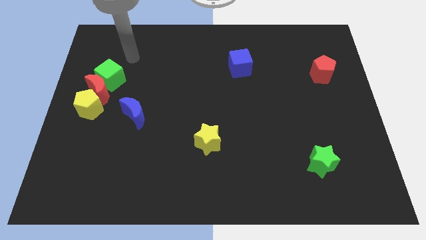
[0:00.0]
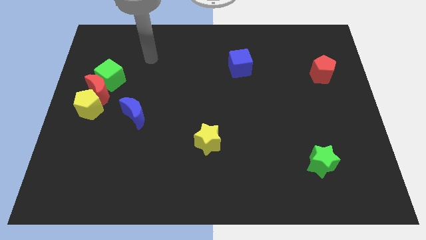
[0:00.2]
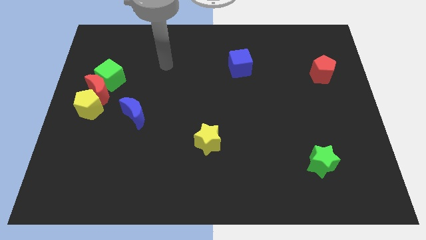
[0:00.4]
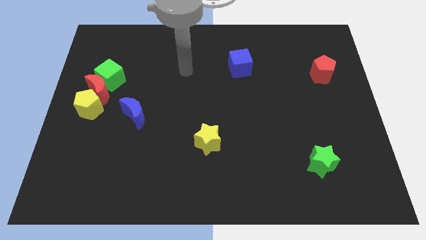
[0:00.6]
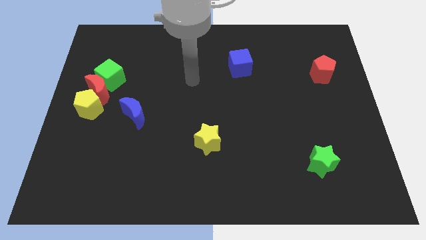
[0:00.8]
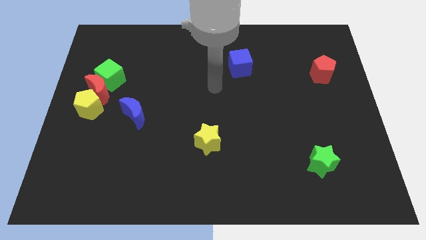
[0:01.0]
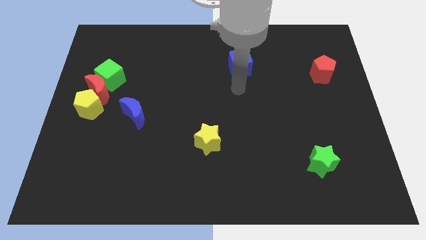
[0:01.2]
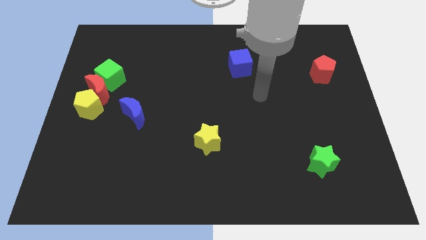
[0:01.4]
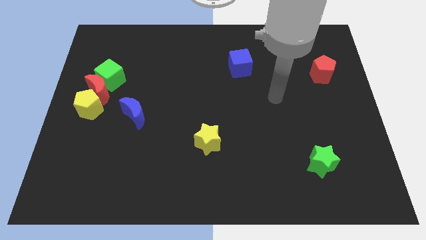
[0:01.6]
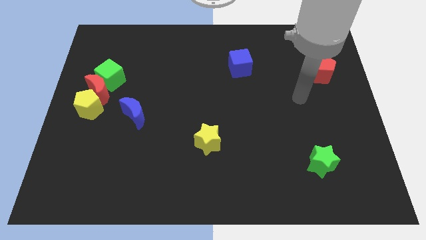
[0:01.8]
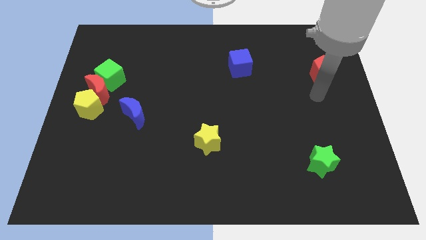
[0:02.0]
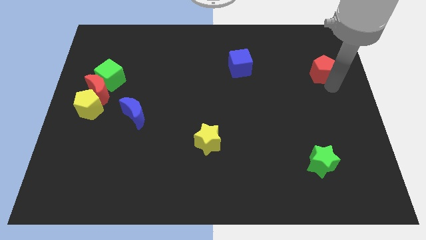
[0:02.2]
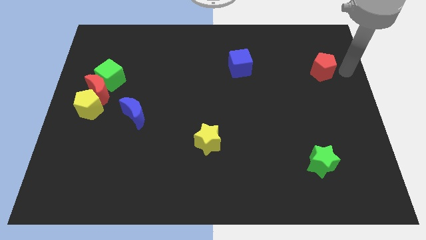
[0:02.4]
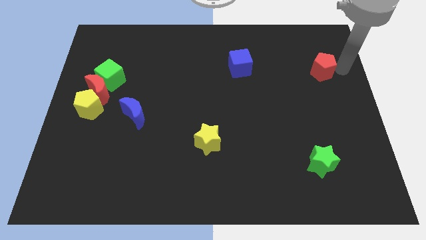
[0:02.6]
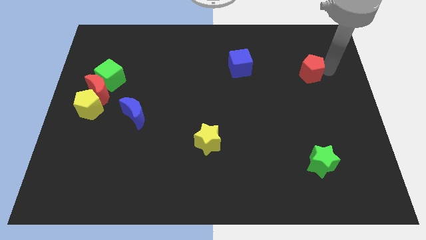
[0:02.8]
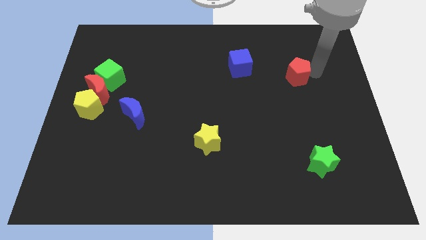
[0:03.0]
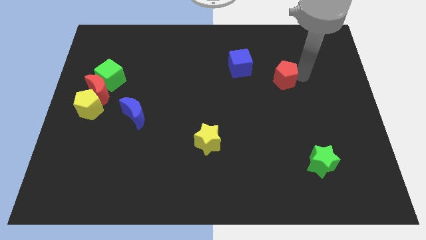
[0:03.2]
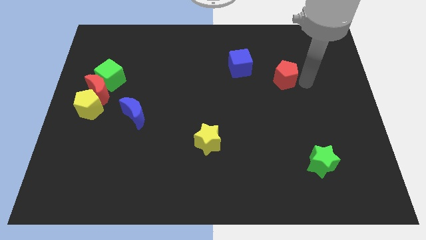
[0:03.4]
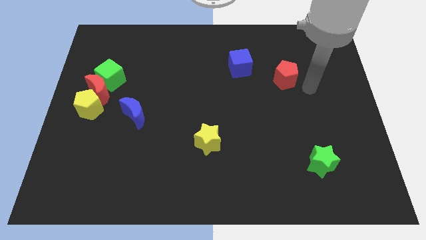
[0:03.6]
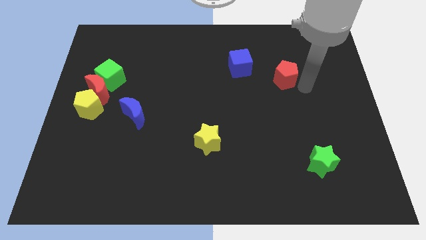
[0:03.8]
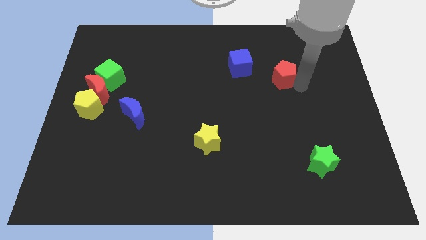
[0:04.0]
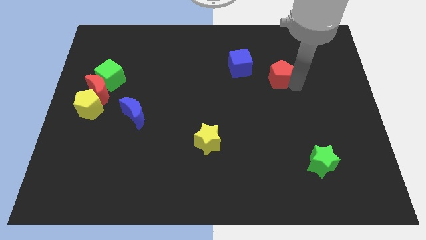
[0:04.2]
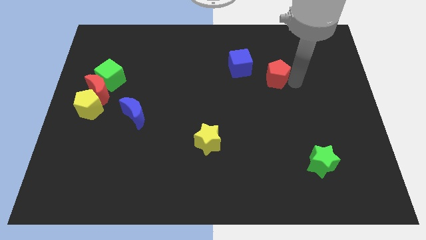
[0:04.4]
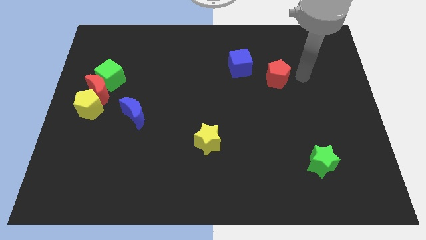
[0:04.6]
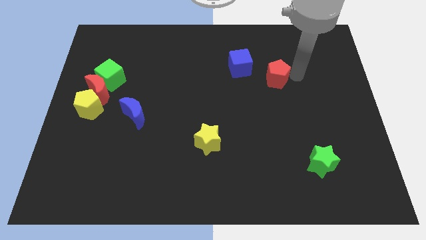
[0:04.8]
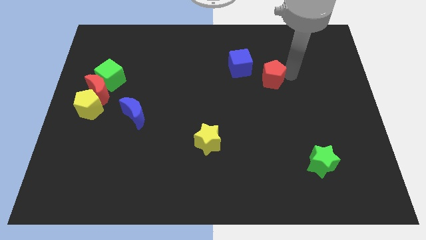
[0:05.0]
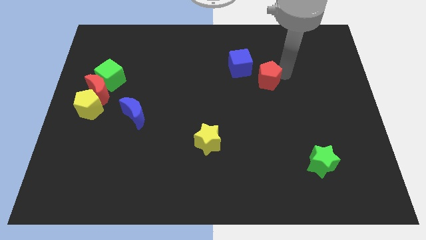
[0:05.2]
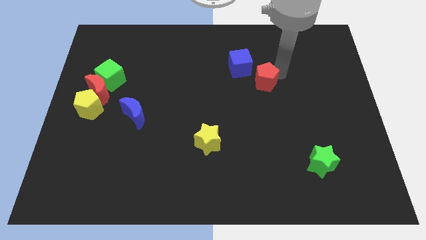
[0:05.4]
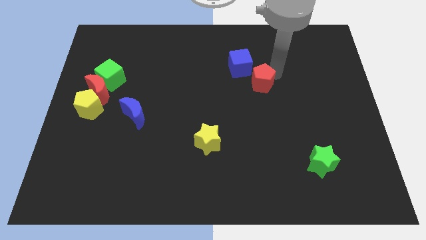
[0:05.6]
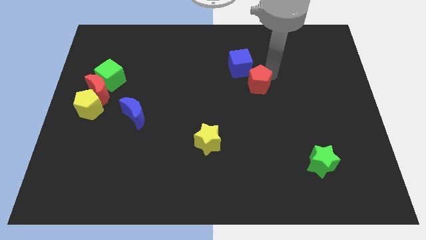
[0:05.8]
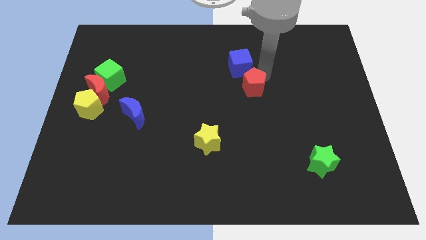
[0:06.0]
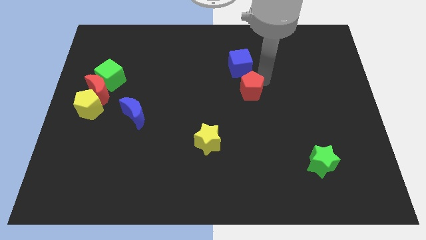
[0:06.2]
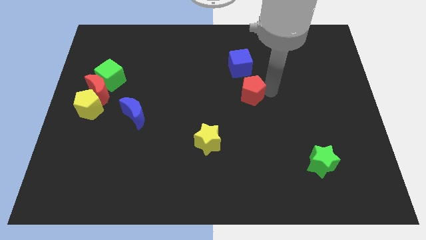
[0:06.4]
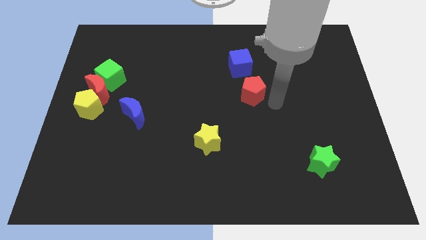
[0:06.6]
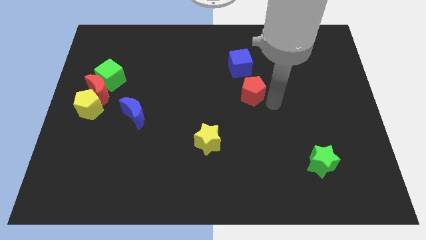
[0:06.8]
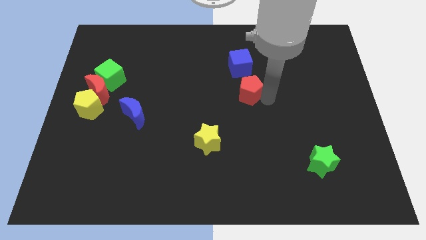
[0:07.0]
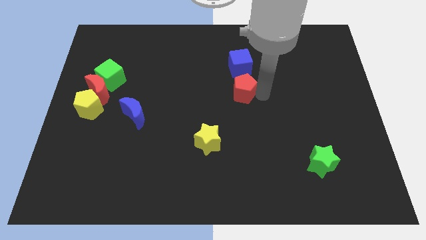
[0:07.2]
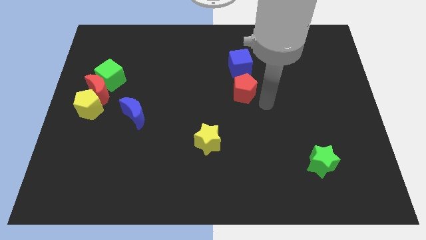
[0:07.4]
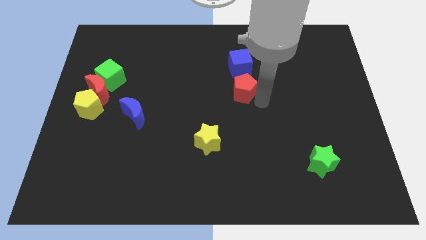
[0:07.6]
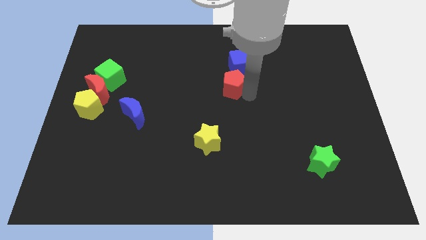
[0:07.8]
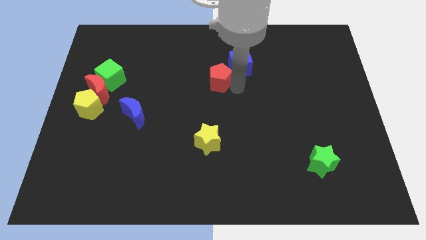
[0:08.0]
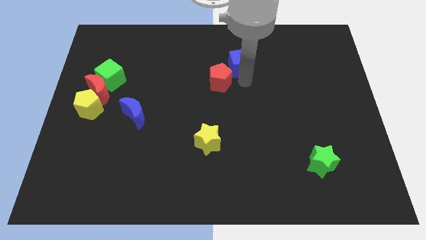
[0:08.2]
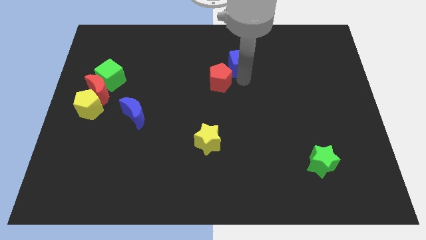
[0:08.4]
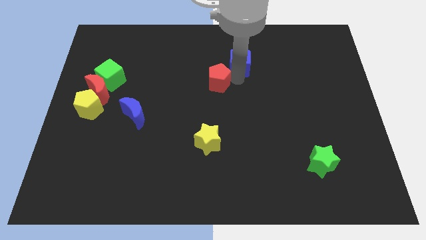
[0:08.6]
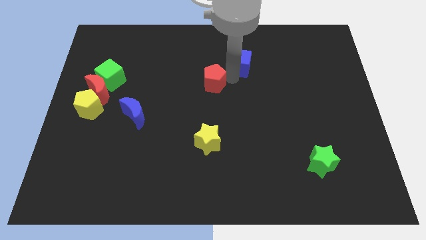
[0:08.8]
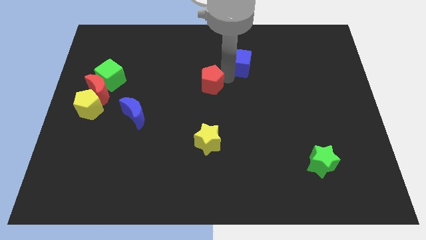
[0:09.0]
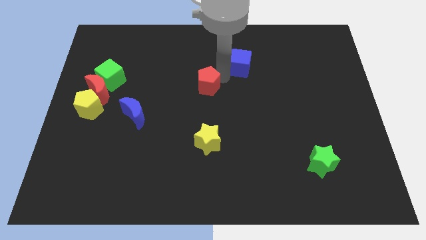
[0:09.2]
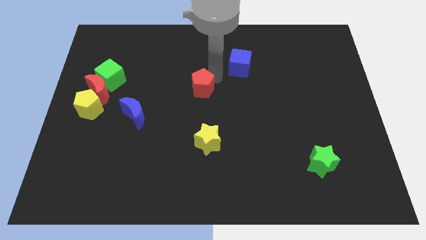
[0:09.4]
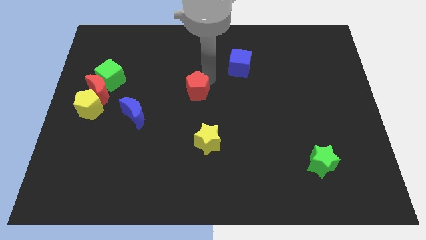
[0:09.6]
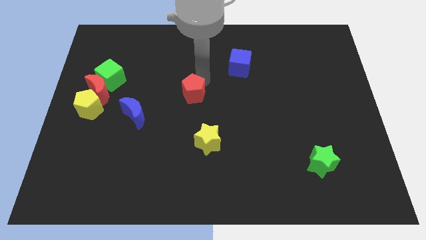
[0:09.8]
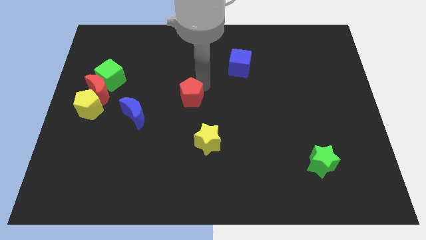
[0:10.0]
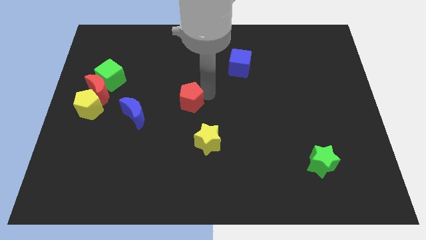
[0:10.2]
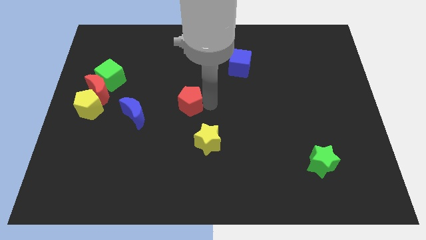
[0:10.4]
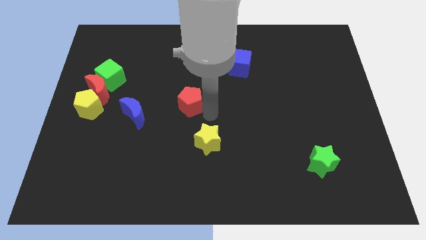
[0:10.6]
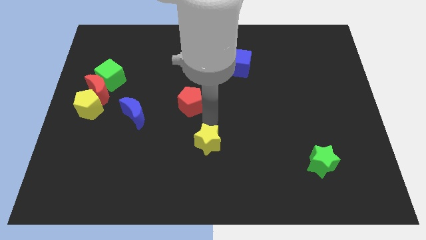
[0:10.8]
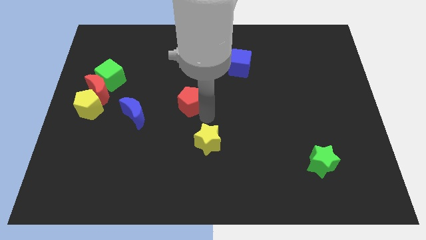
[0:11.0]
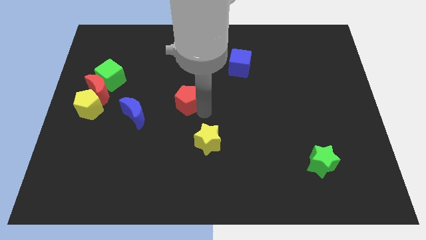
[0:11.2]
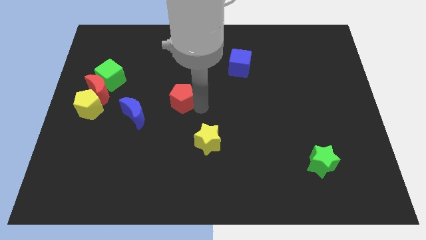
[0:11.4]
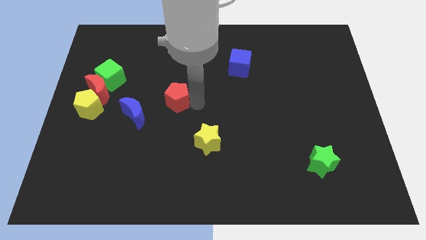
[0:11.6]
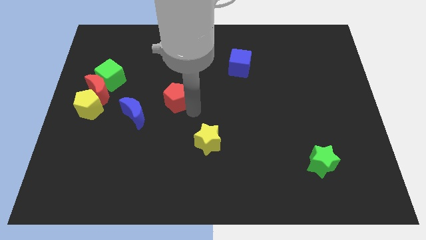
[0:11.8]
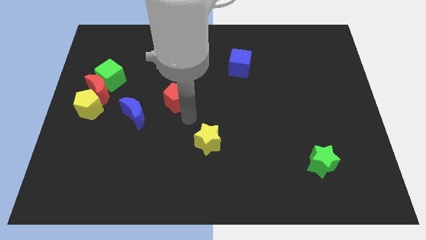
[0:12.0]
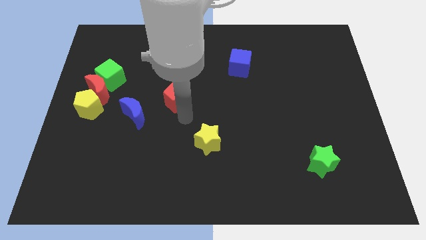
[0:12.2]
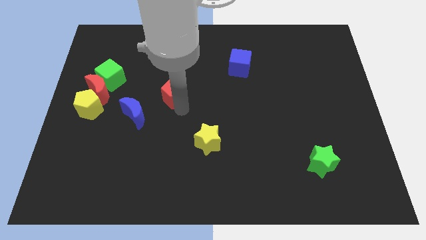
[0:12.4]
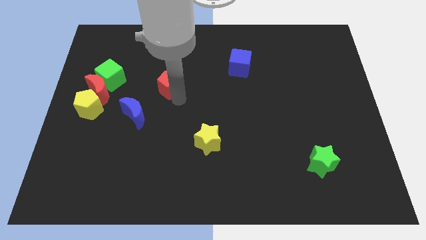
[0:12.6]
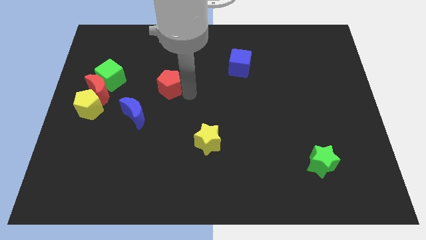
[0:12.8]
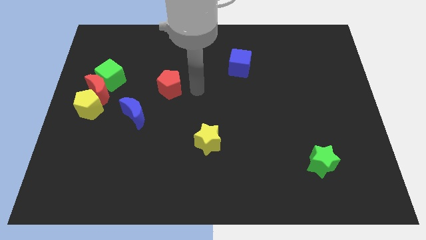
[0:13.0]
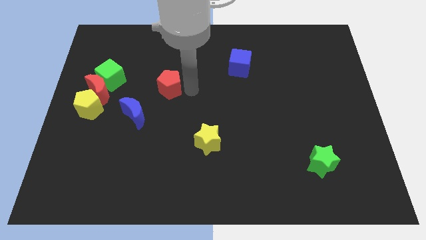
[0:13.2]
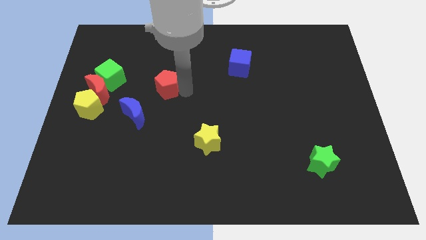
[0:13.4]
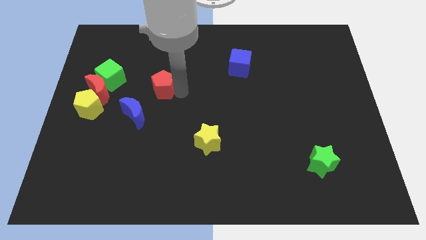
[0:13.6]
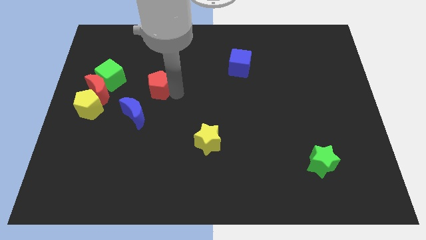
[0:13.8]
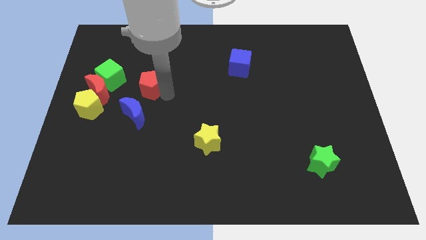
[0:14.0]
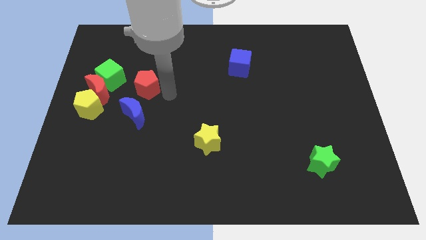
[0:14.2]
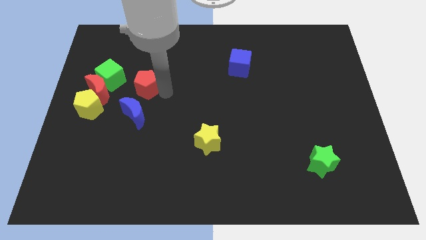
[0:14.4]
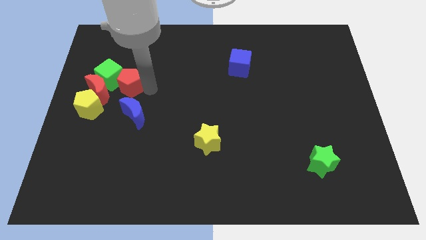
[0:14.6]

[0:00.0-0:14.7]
move the red pentagon to the green cube

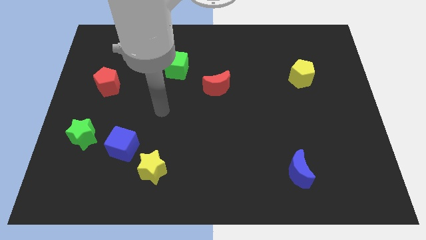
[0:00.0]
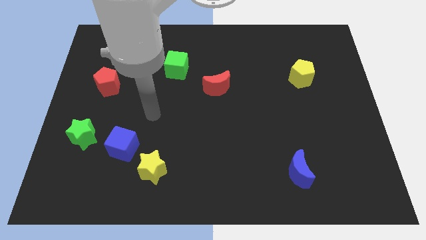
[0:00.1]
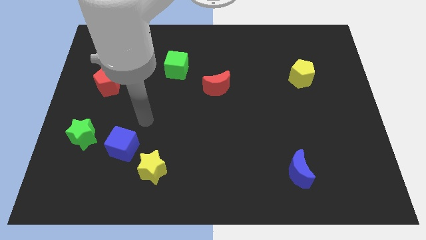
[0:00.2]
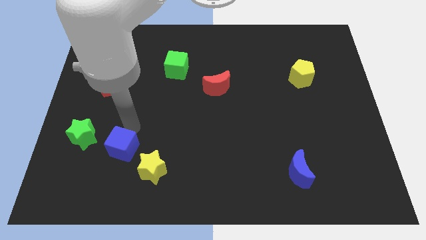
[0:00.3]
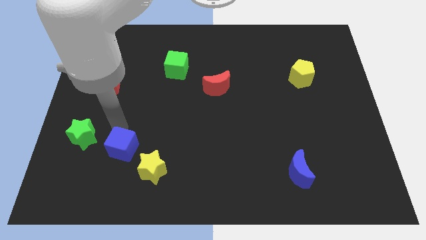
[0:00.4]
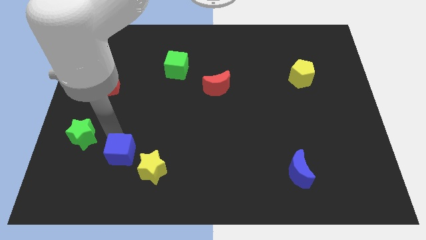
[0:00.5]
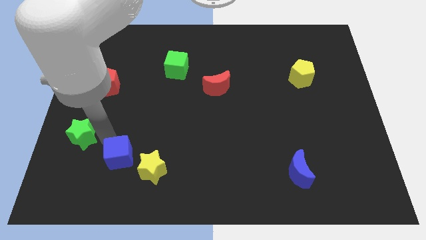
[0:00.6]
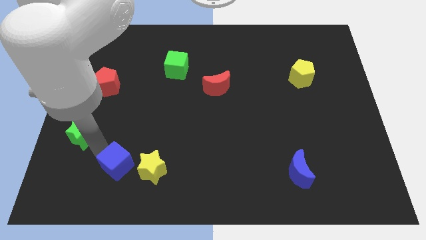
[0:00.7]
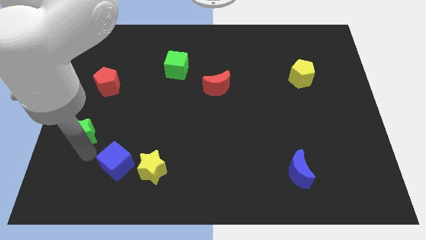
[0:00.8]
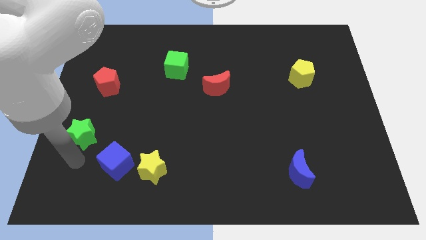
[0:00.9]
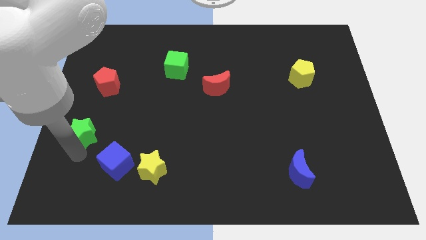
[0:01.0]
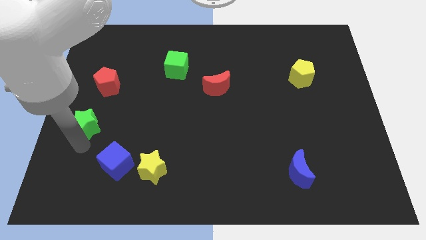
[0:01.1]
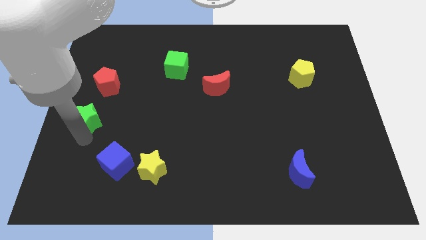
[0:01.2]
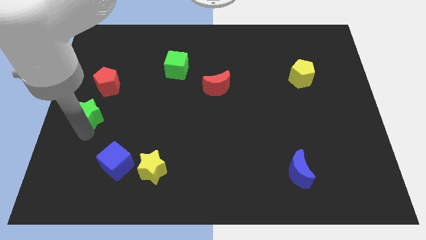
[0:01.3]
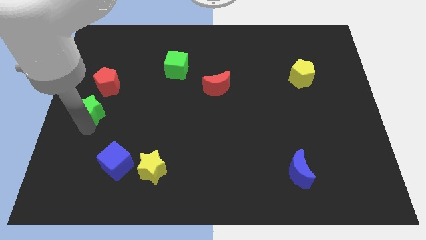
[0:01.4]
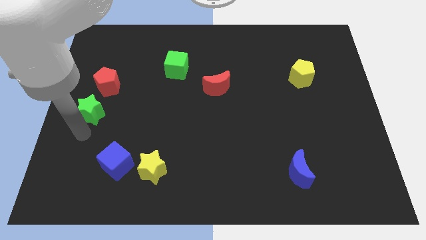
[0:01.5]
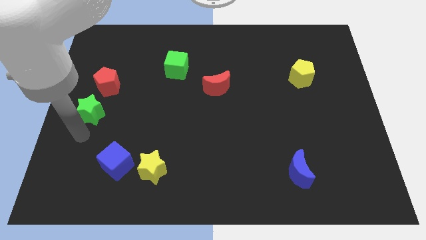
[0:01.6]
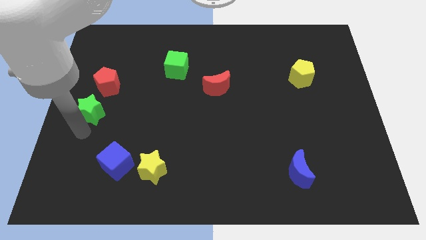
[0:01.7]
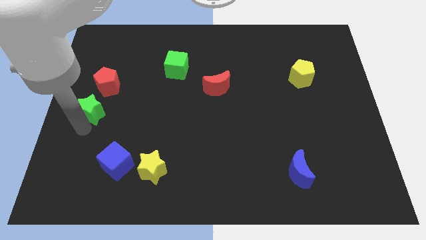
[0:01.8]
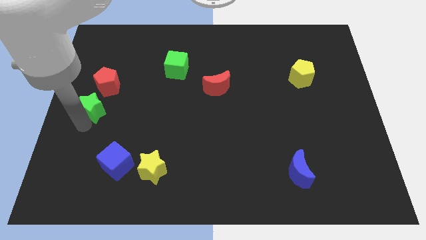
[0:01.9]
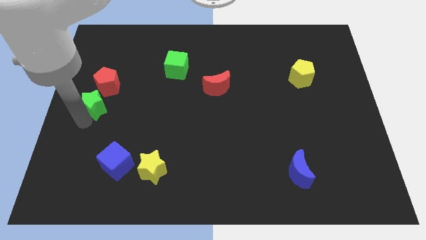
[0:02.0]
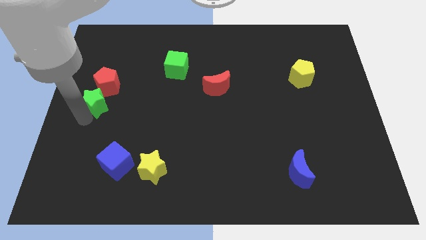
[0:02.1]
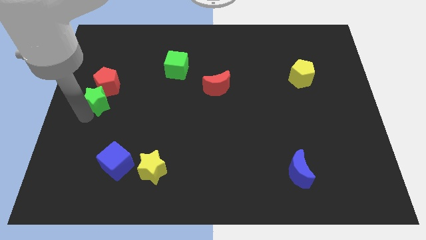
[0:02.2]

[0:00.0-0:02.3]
put the green star towards the red pentagon
